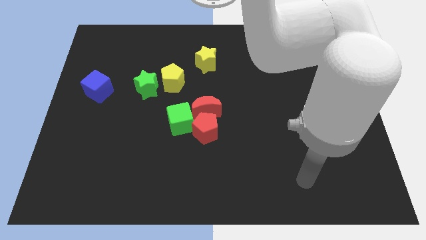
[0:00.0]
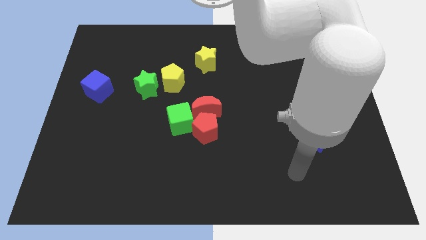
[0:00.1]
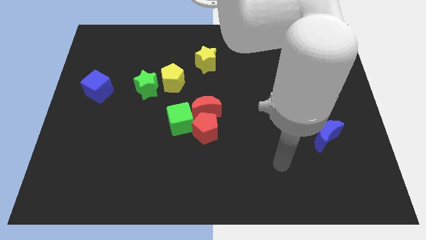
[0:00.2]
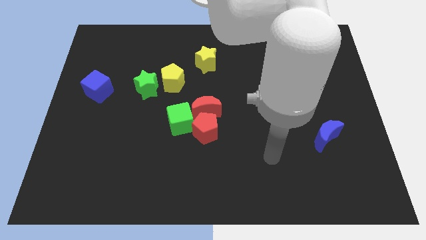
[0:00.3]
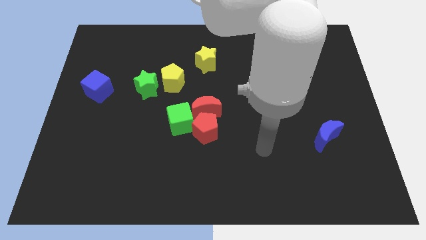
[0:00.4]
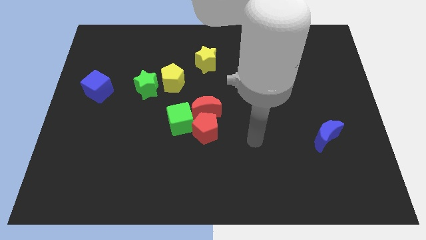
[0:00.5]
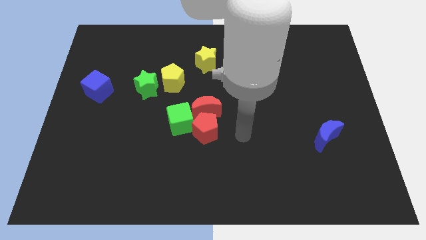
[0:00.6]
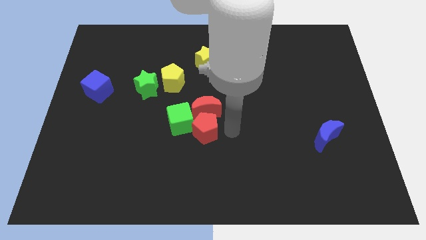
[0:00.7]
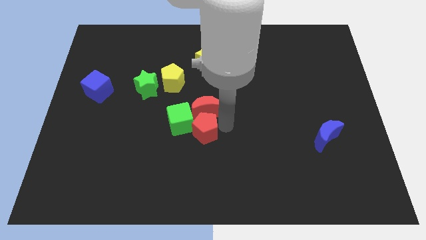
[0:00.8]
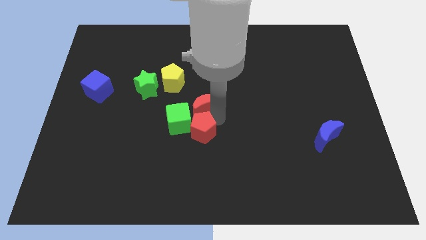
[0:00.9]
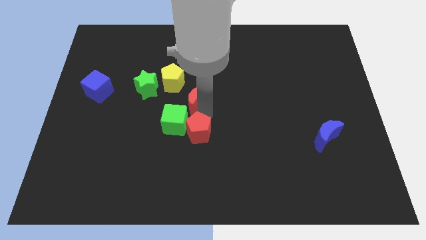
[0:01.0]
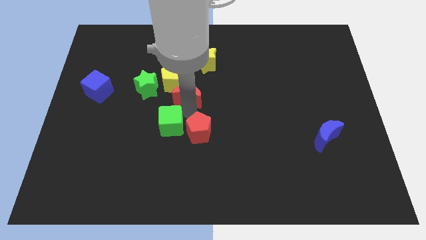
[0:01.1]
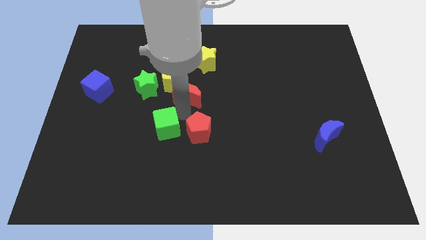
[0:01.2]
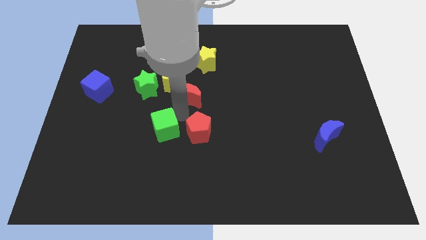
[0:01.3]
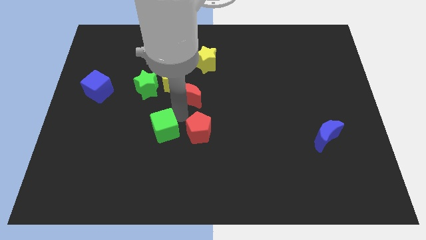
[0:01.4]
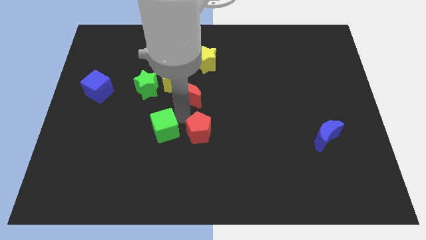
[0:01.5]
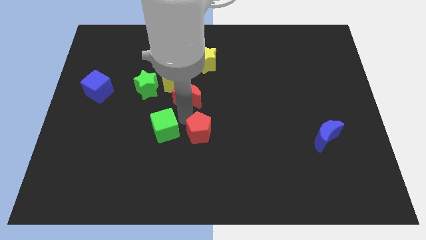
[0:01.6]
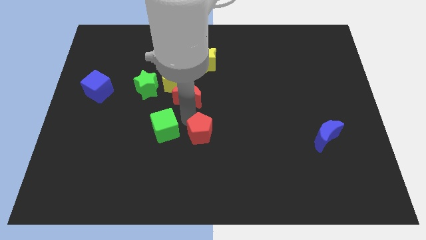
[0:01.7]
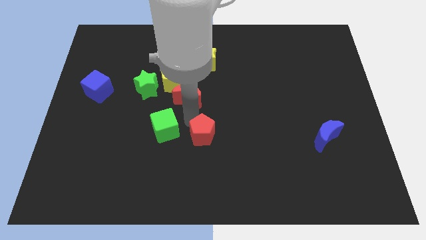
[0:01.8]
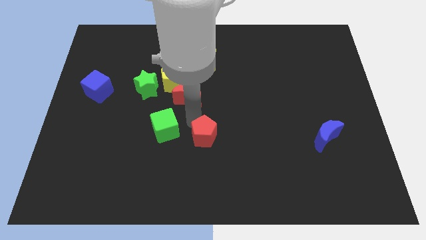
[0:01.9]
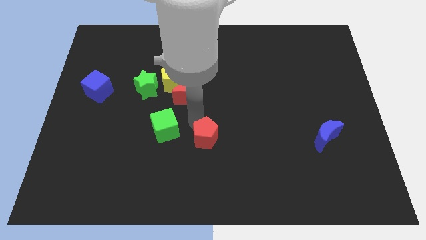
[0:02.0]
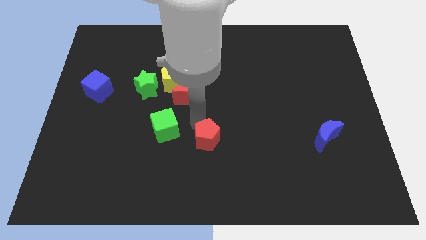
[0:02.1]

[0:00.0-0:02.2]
move the red pentagon away from the red moon and green cube

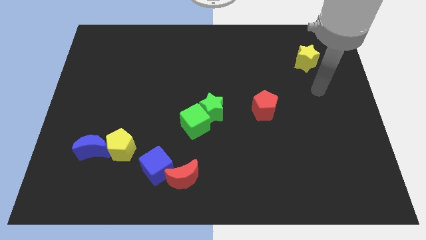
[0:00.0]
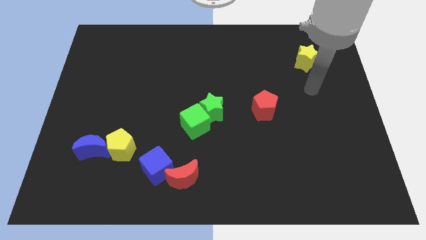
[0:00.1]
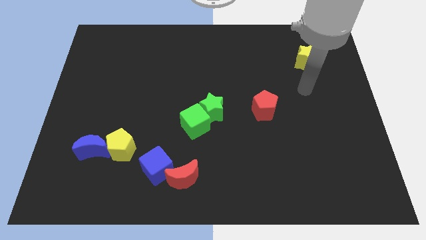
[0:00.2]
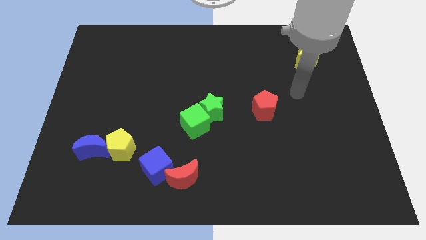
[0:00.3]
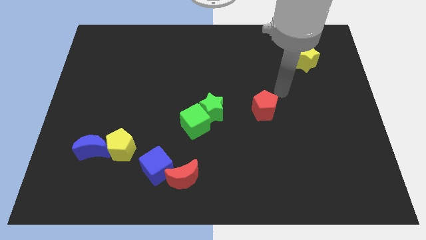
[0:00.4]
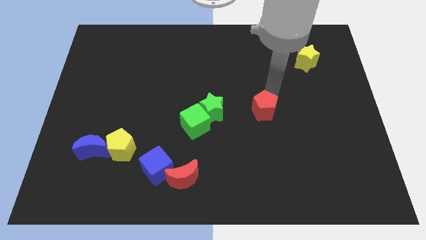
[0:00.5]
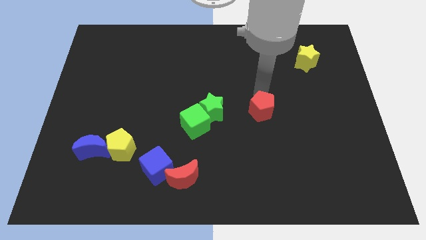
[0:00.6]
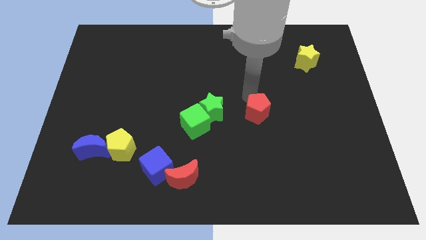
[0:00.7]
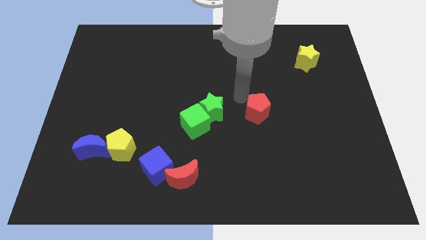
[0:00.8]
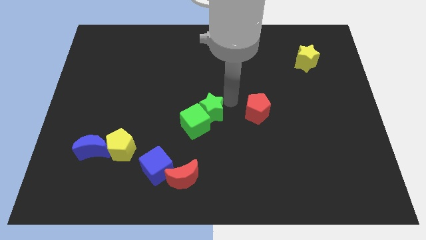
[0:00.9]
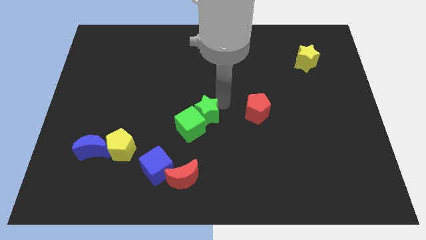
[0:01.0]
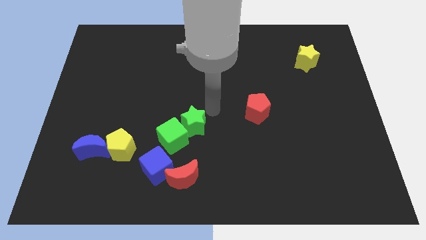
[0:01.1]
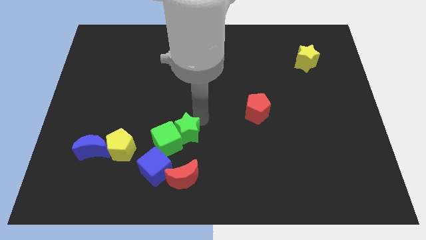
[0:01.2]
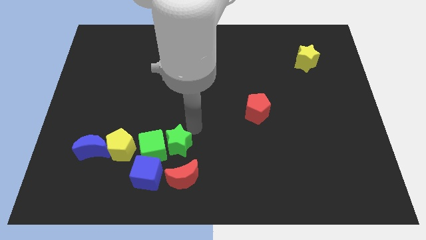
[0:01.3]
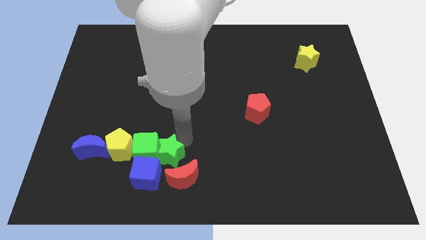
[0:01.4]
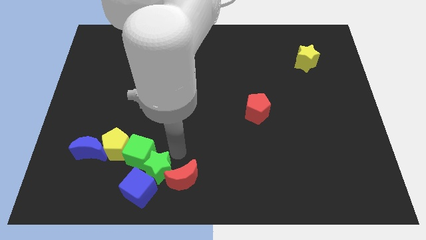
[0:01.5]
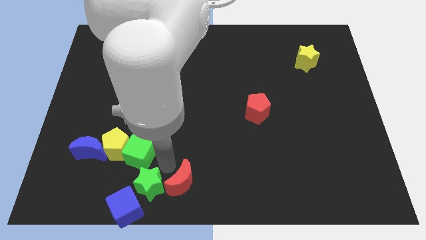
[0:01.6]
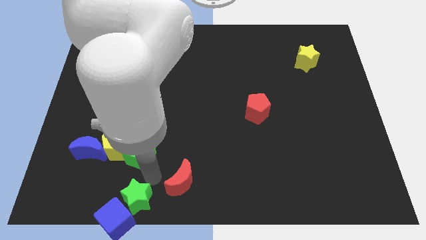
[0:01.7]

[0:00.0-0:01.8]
separate the green cube from the green star

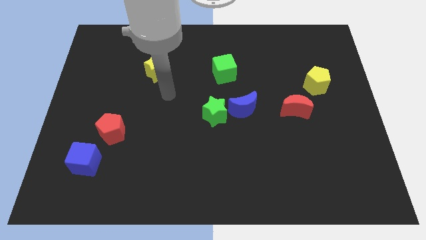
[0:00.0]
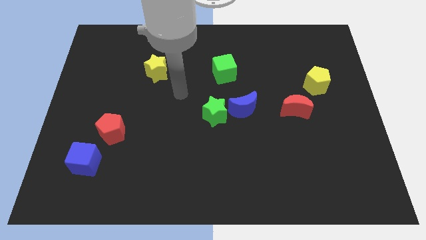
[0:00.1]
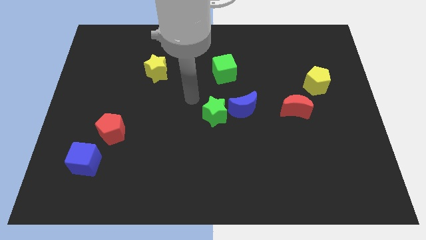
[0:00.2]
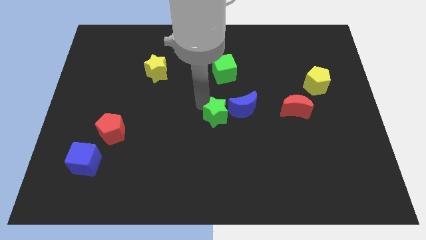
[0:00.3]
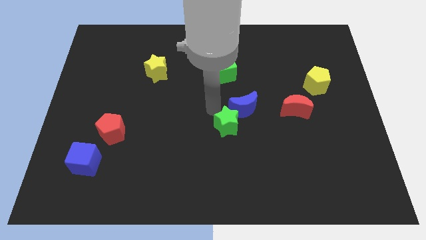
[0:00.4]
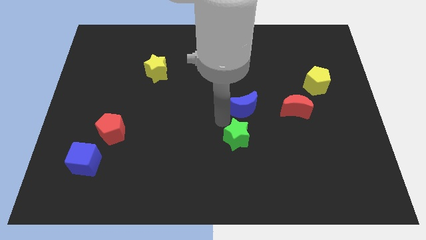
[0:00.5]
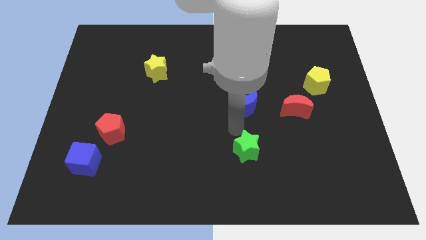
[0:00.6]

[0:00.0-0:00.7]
pull the blue moon apart from the green star

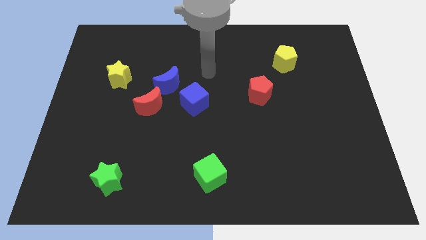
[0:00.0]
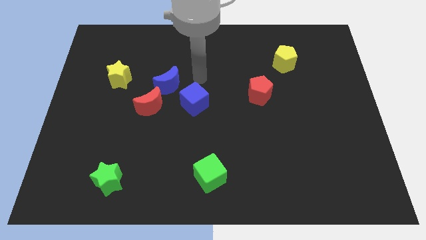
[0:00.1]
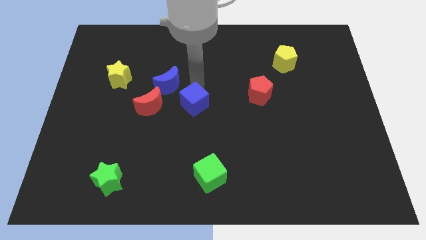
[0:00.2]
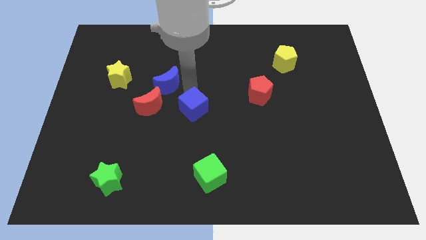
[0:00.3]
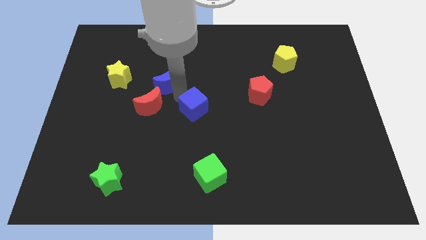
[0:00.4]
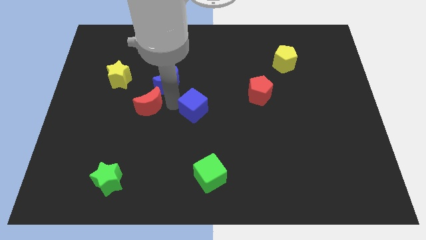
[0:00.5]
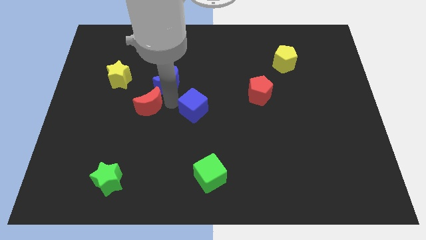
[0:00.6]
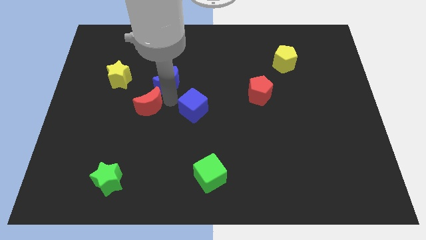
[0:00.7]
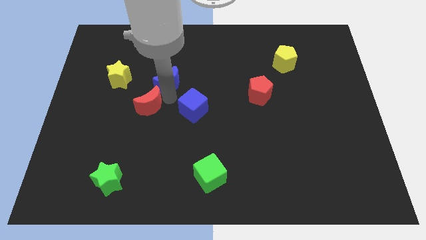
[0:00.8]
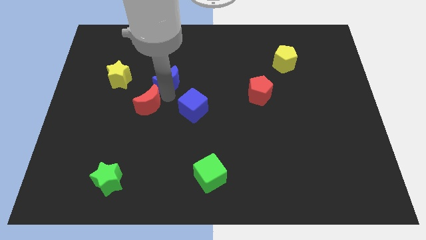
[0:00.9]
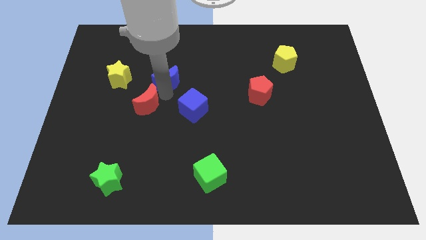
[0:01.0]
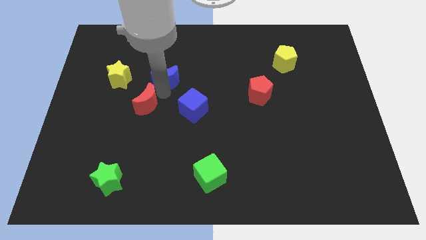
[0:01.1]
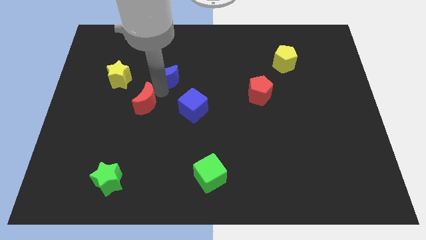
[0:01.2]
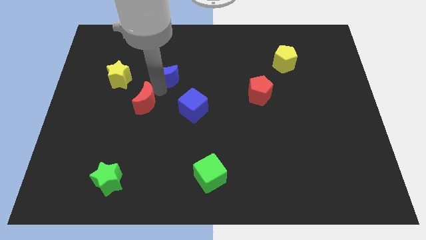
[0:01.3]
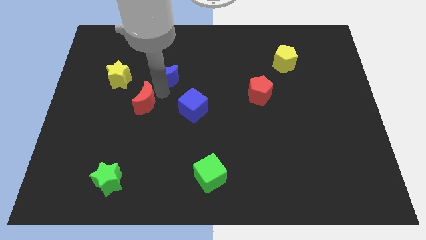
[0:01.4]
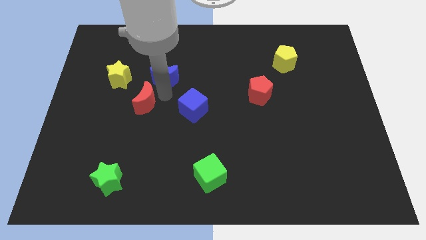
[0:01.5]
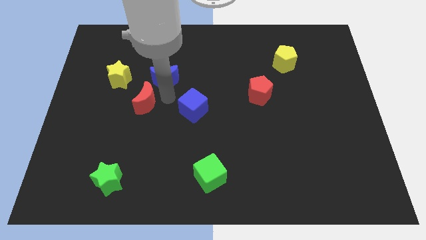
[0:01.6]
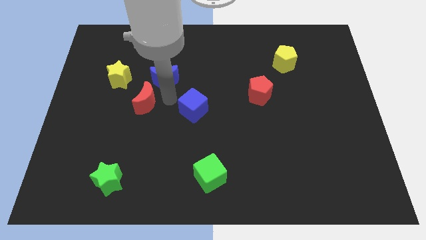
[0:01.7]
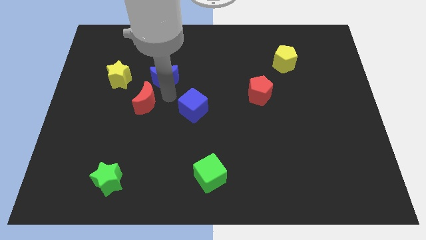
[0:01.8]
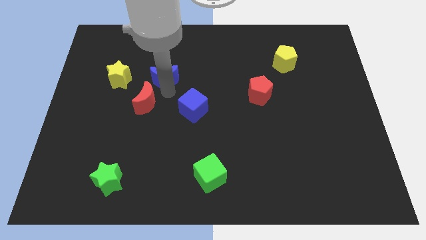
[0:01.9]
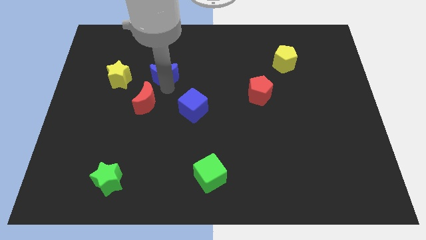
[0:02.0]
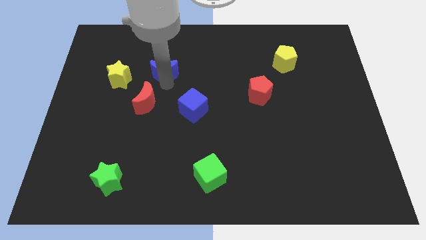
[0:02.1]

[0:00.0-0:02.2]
pull the blue moon apart from the red moon and blue cube

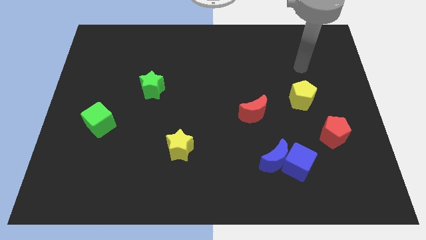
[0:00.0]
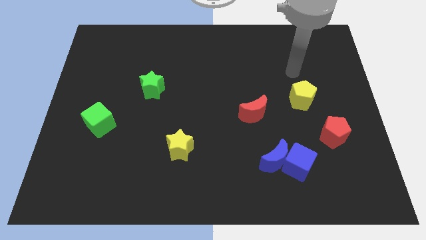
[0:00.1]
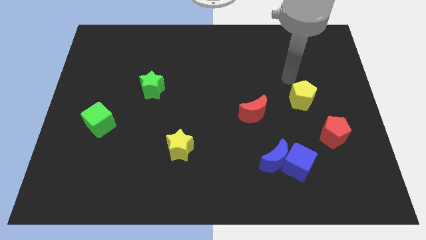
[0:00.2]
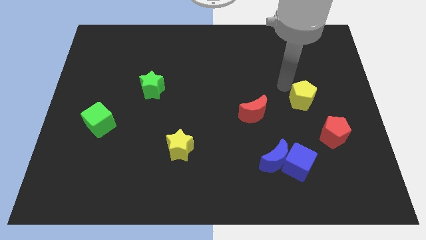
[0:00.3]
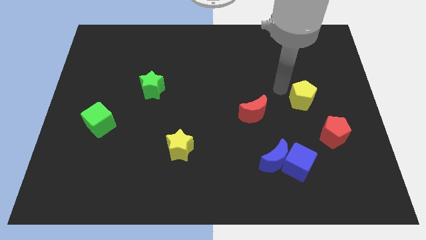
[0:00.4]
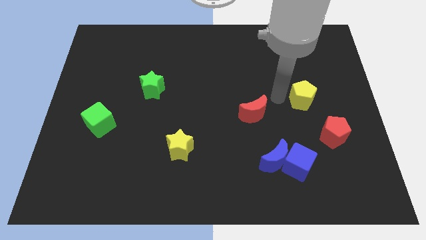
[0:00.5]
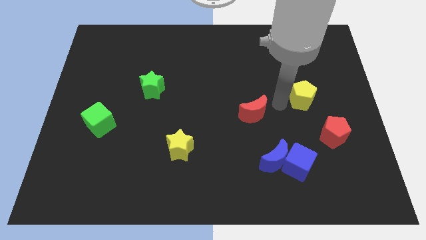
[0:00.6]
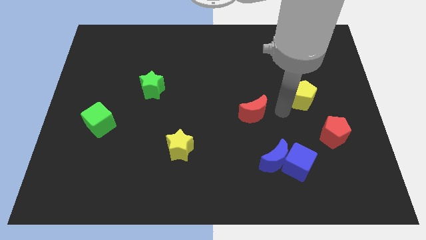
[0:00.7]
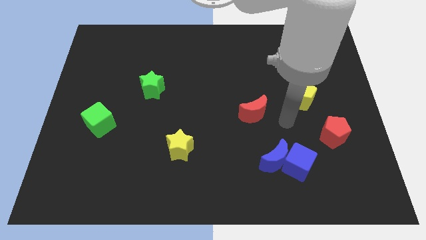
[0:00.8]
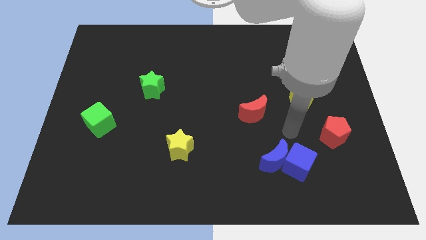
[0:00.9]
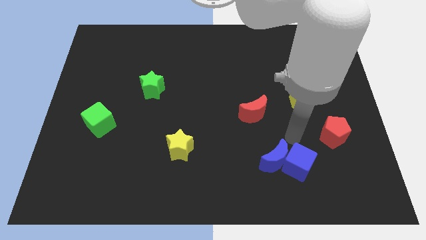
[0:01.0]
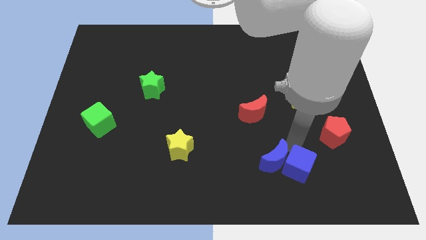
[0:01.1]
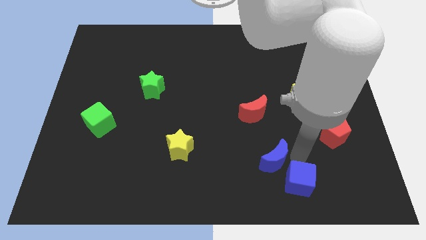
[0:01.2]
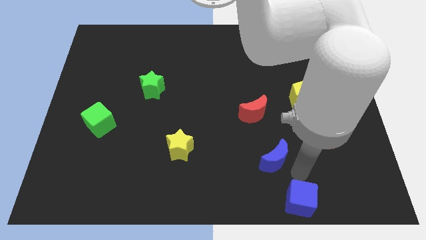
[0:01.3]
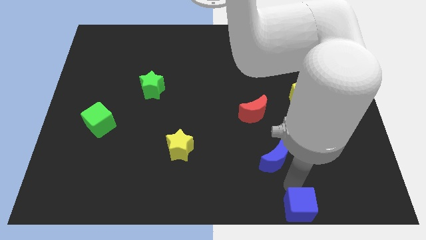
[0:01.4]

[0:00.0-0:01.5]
pull the blue moon apart from the blue cube

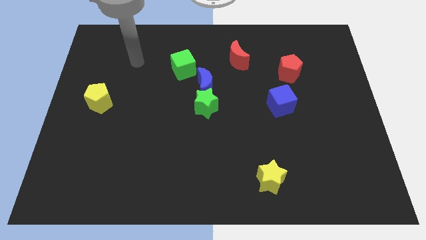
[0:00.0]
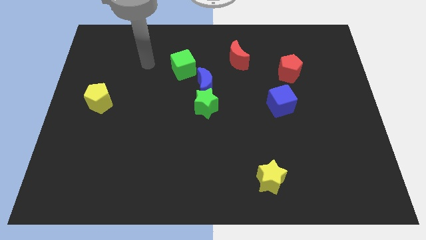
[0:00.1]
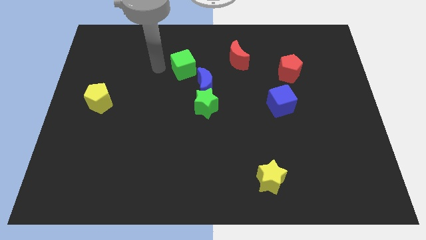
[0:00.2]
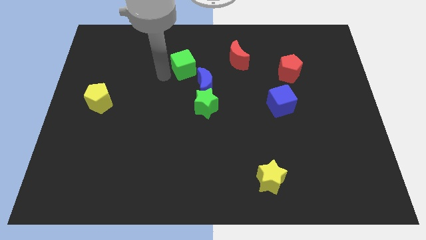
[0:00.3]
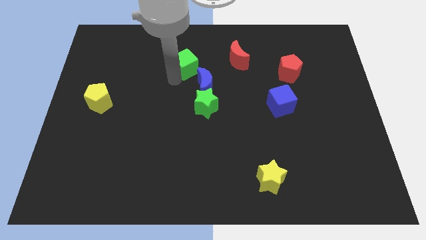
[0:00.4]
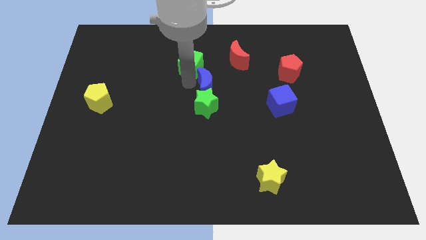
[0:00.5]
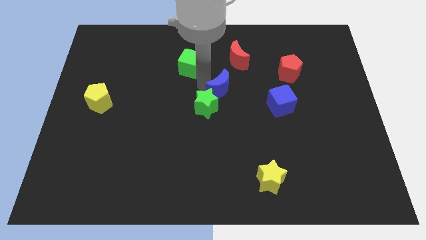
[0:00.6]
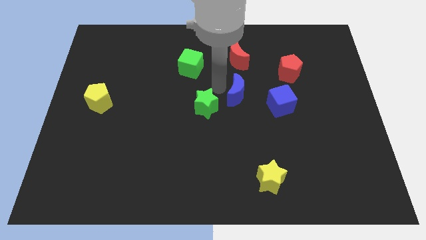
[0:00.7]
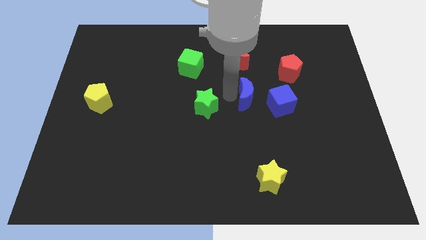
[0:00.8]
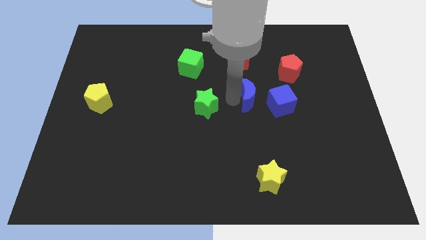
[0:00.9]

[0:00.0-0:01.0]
pull the green star apart from the blue moon
